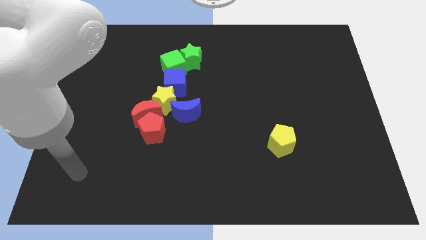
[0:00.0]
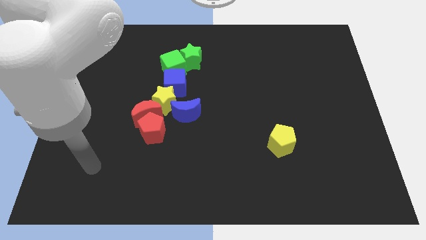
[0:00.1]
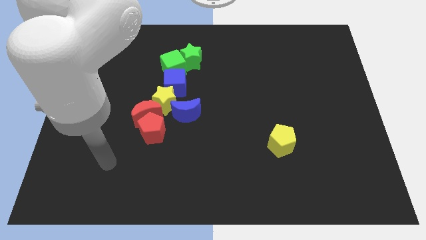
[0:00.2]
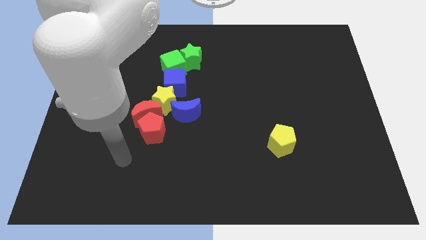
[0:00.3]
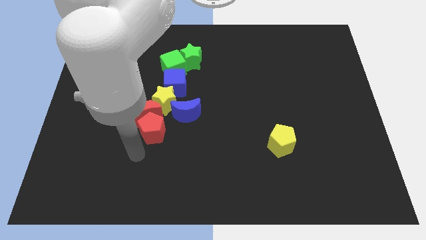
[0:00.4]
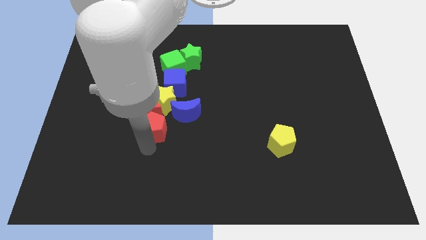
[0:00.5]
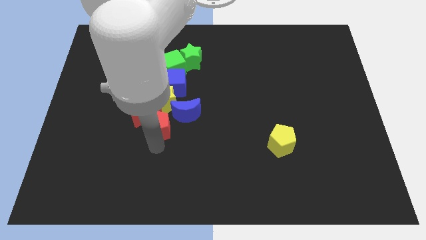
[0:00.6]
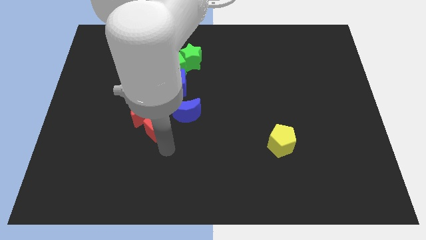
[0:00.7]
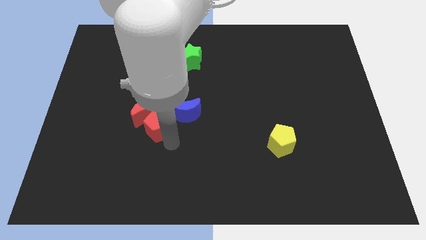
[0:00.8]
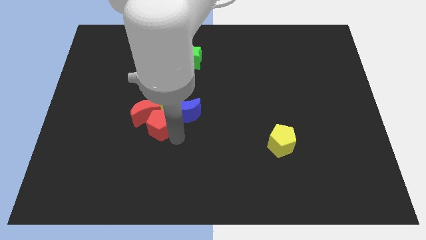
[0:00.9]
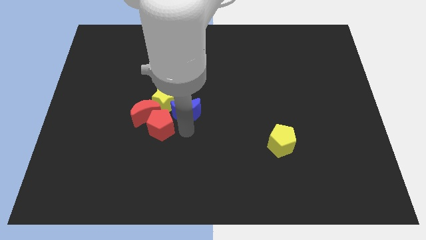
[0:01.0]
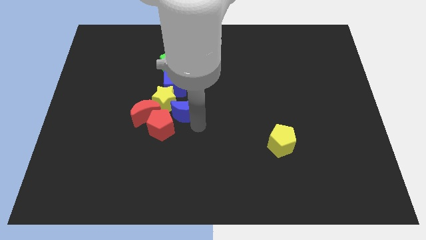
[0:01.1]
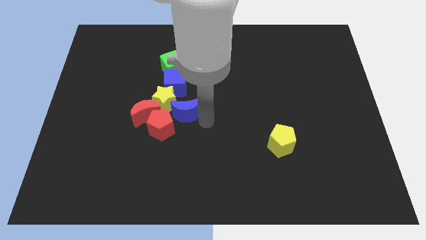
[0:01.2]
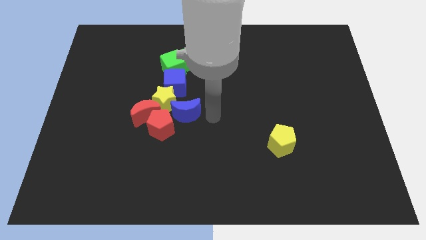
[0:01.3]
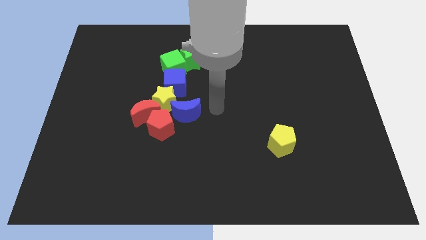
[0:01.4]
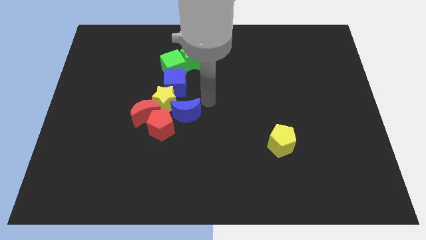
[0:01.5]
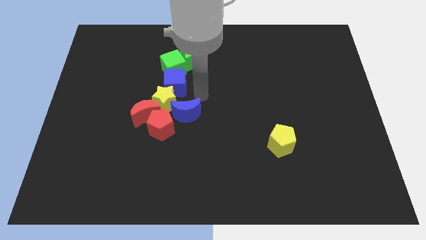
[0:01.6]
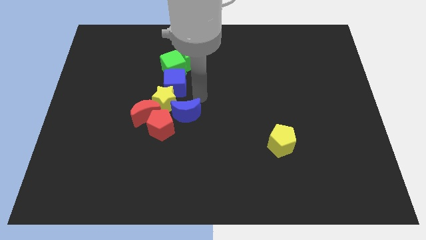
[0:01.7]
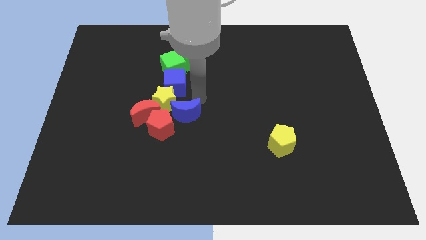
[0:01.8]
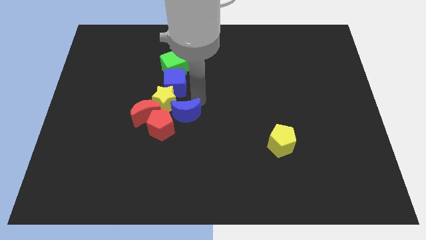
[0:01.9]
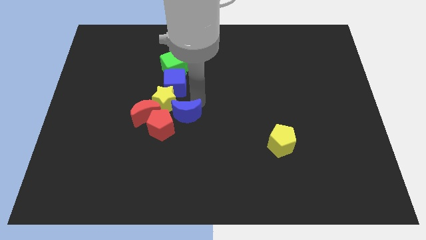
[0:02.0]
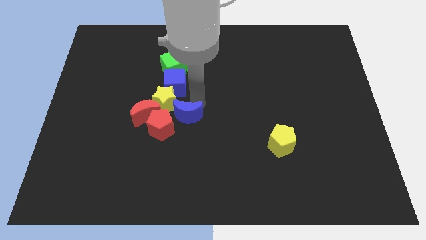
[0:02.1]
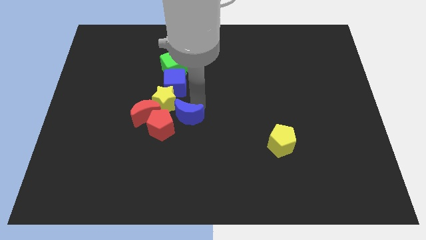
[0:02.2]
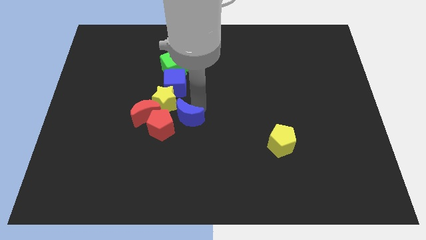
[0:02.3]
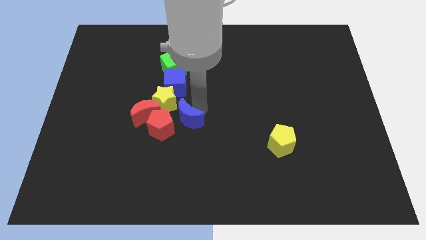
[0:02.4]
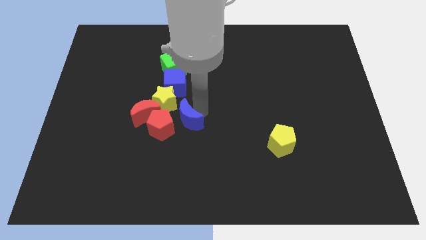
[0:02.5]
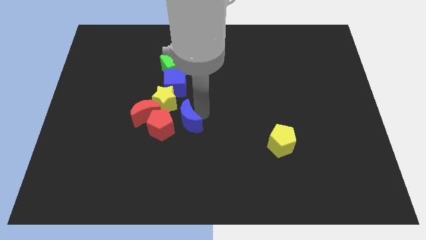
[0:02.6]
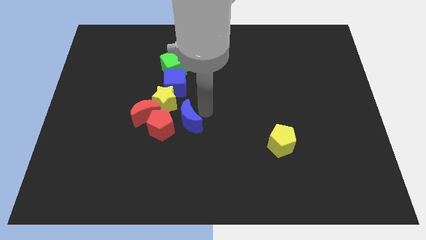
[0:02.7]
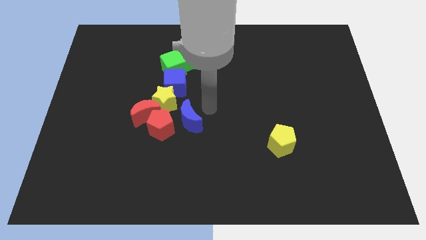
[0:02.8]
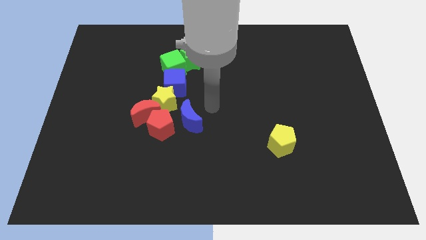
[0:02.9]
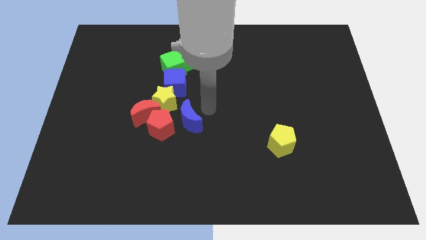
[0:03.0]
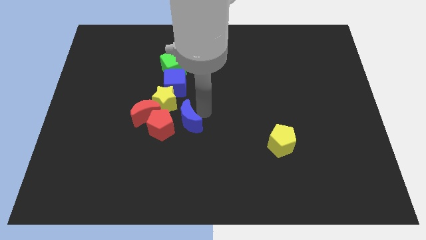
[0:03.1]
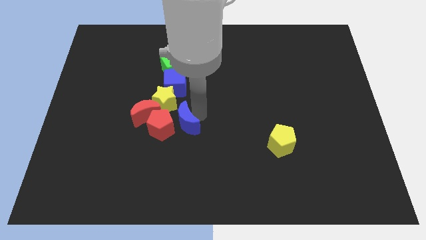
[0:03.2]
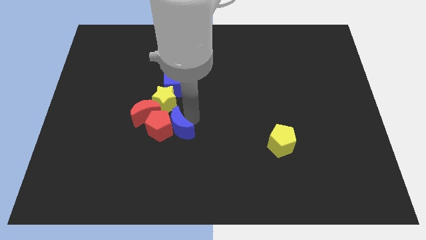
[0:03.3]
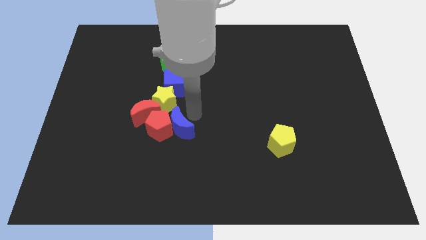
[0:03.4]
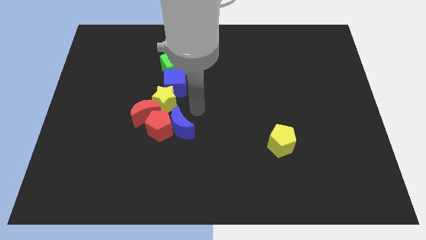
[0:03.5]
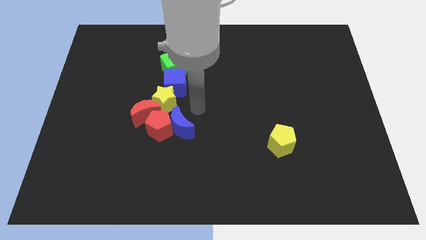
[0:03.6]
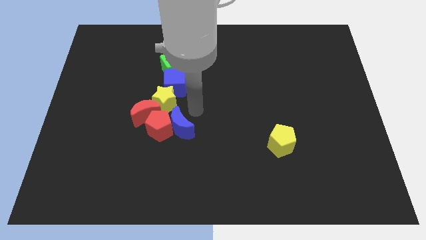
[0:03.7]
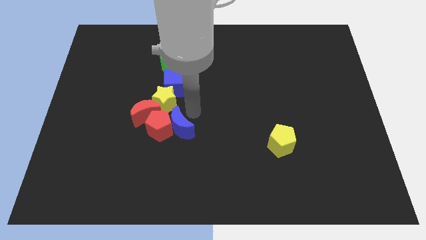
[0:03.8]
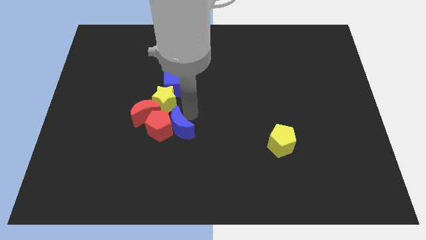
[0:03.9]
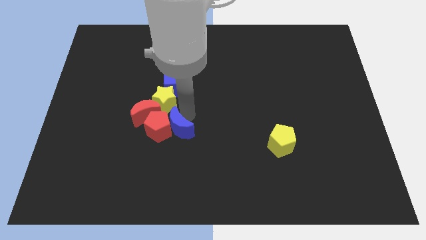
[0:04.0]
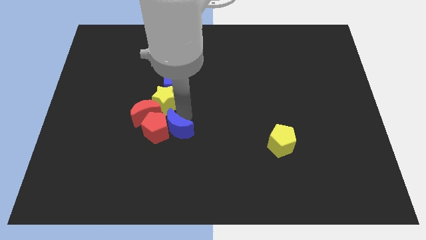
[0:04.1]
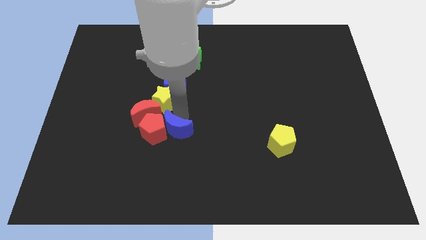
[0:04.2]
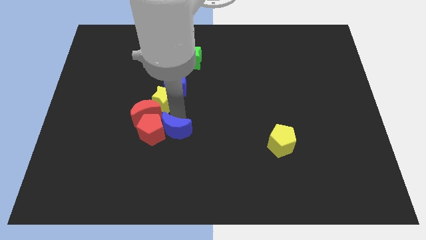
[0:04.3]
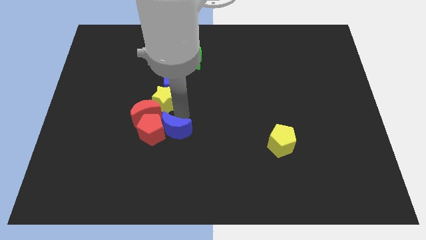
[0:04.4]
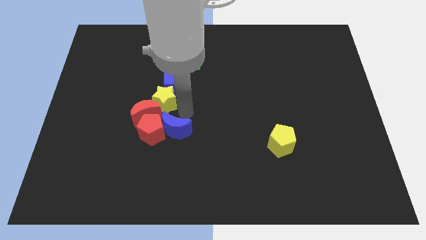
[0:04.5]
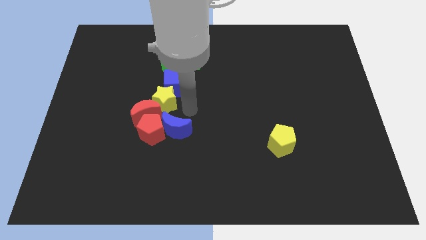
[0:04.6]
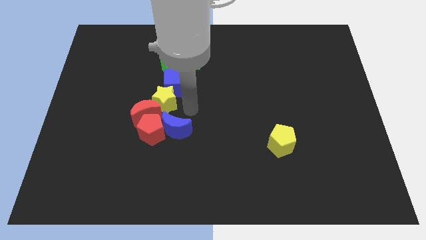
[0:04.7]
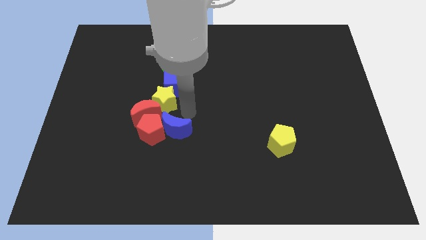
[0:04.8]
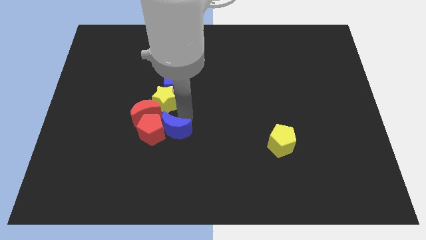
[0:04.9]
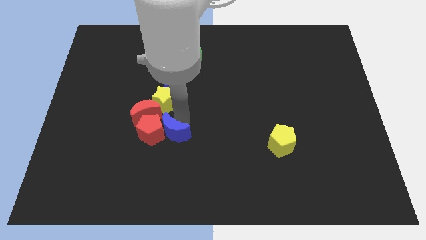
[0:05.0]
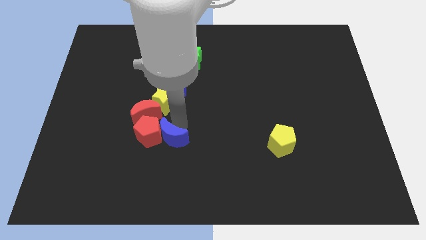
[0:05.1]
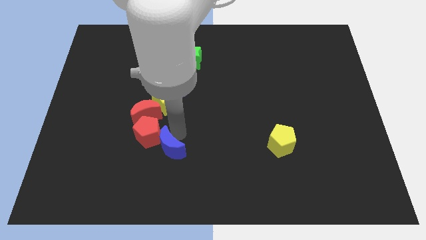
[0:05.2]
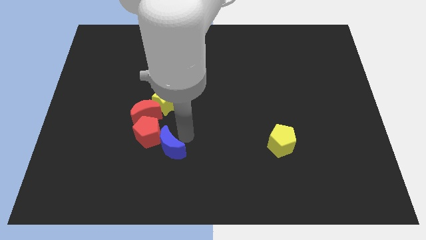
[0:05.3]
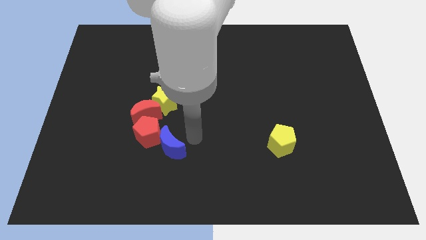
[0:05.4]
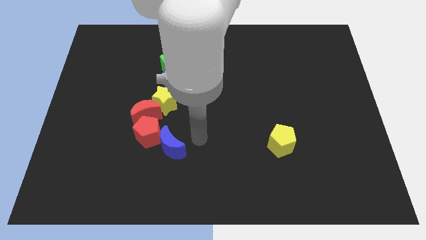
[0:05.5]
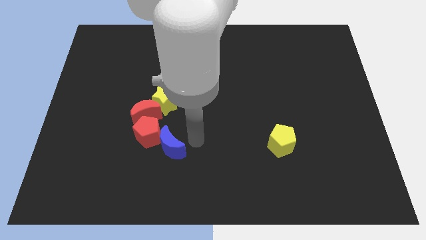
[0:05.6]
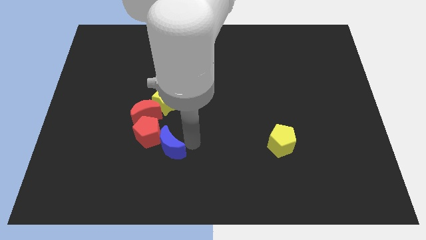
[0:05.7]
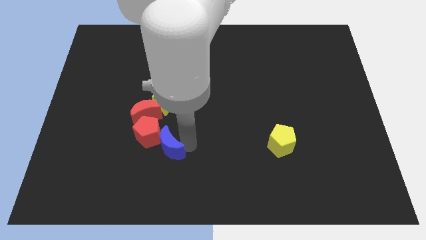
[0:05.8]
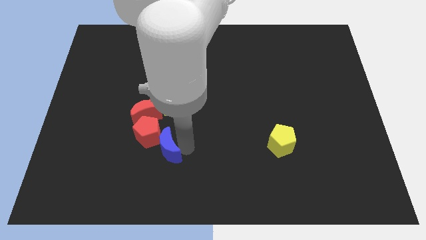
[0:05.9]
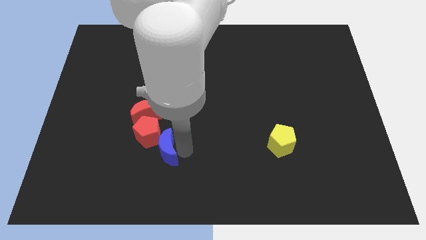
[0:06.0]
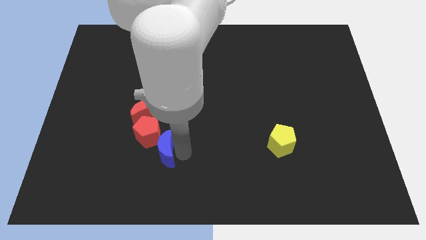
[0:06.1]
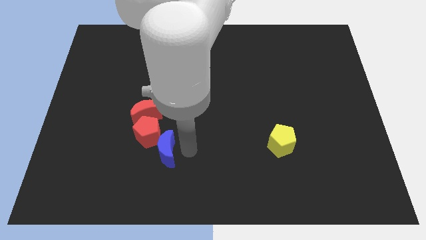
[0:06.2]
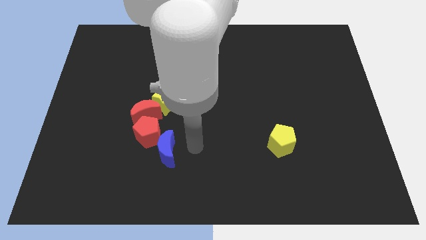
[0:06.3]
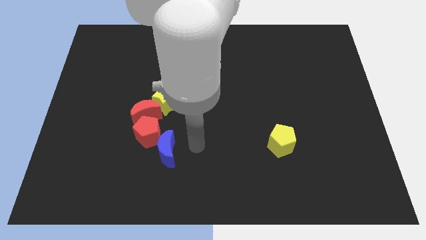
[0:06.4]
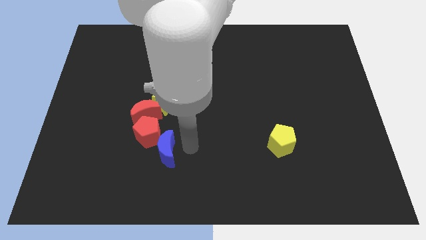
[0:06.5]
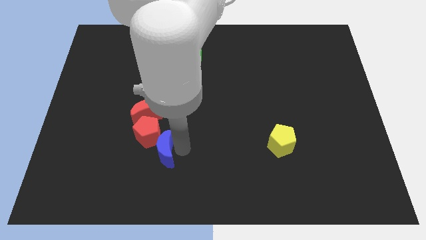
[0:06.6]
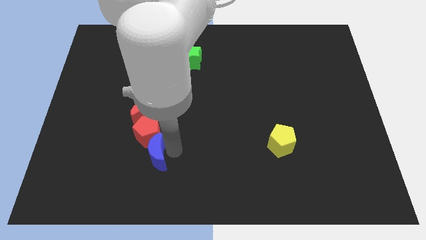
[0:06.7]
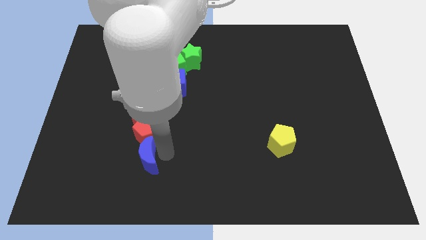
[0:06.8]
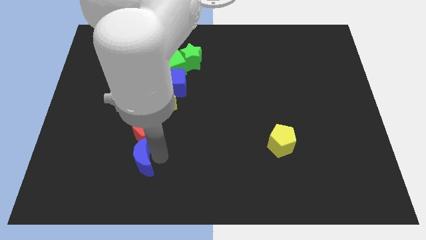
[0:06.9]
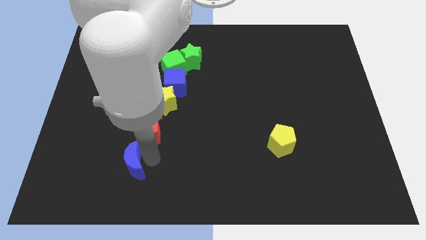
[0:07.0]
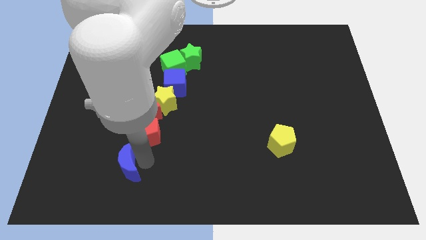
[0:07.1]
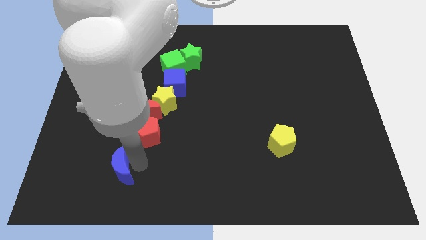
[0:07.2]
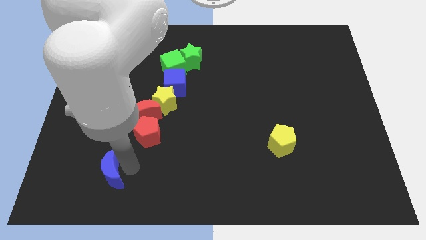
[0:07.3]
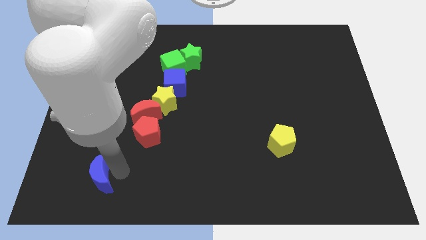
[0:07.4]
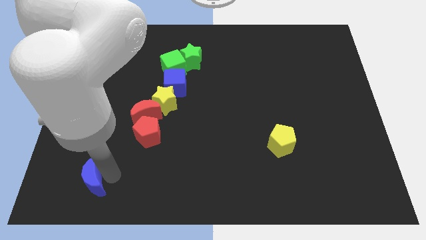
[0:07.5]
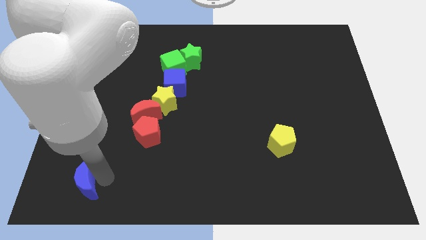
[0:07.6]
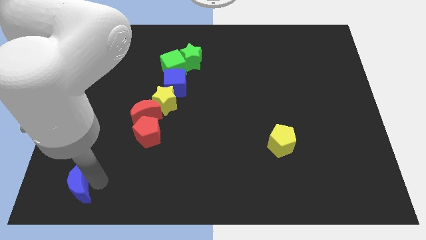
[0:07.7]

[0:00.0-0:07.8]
push the blue moon to the bottom left of the board
